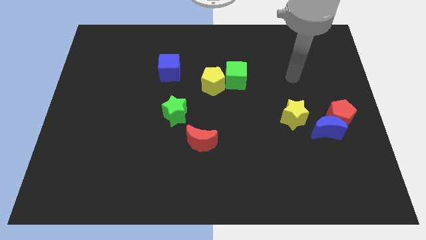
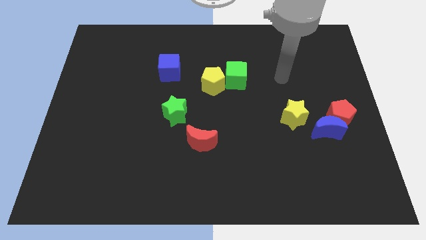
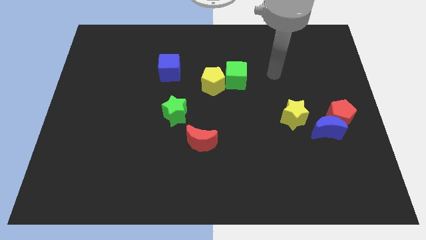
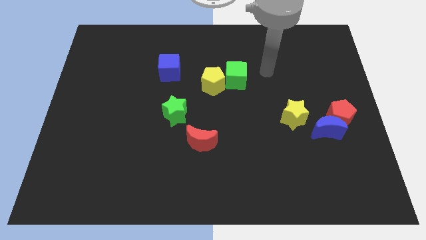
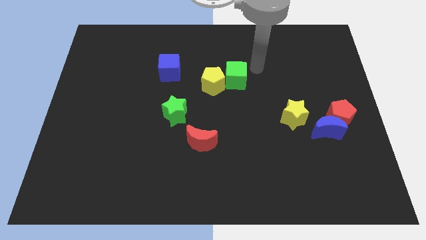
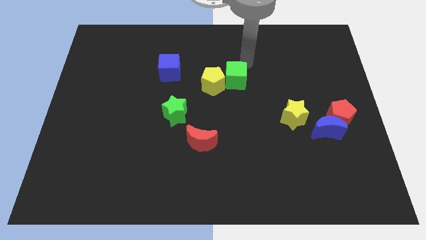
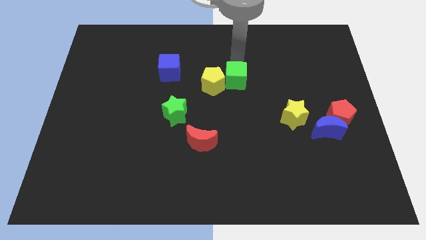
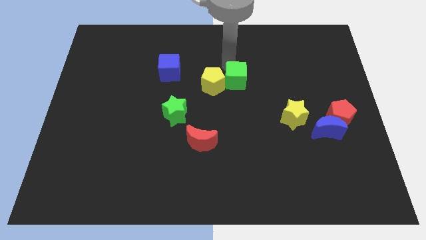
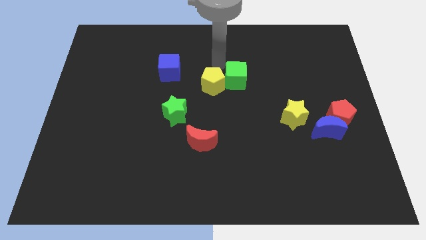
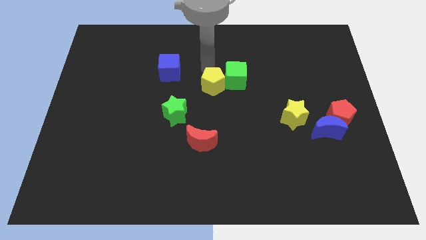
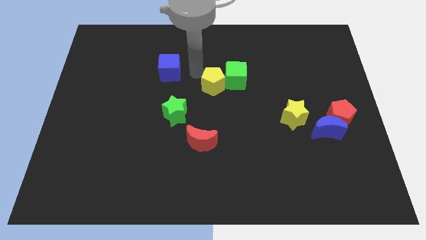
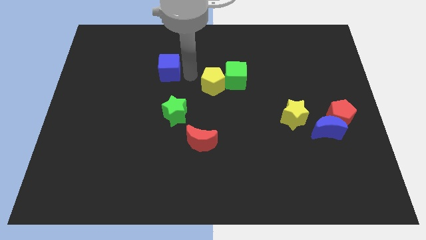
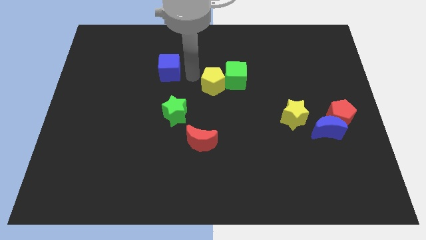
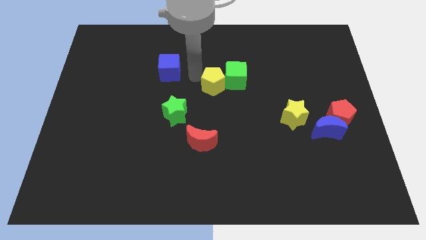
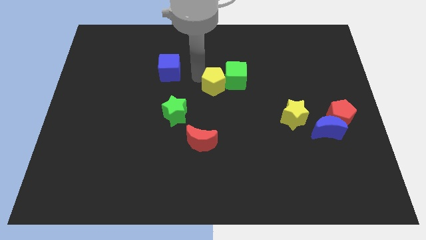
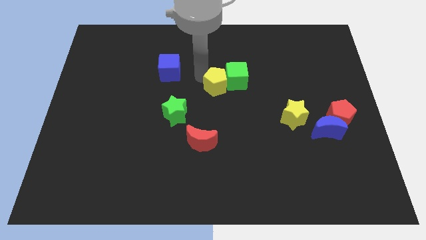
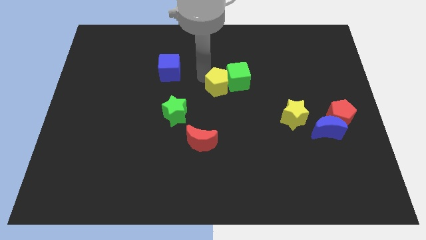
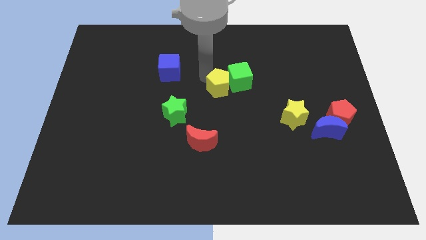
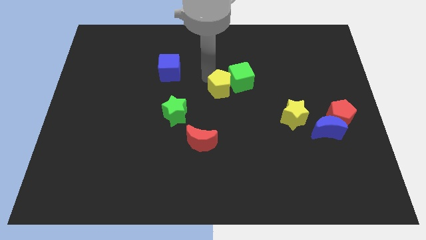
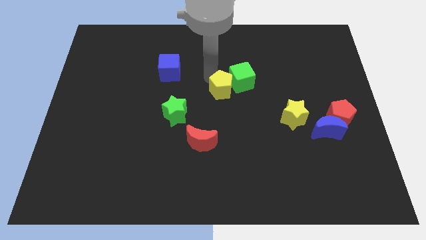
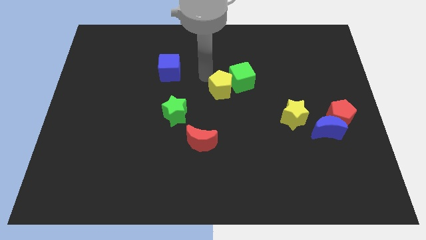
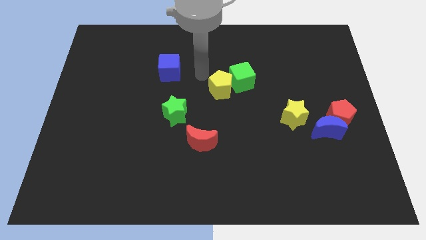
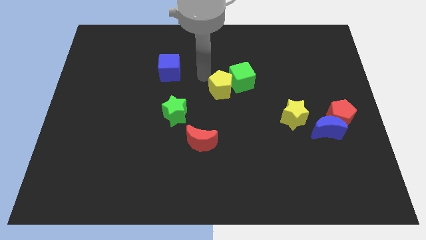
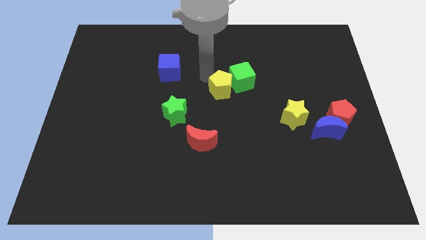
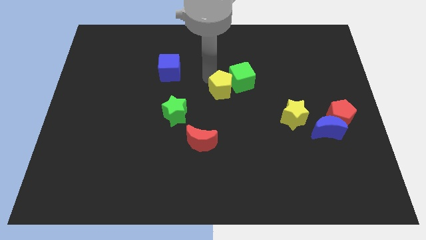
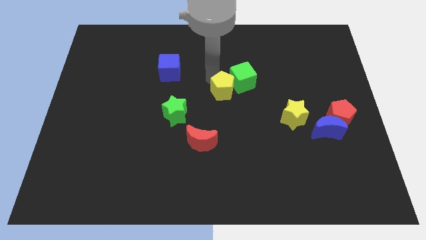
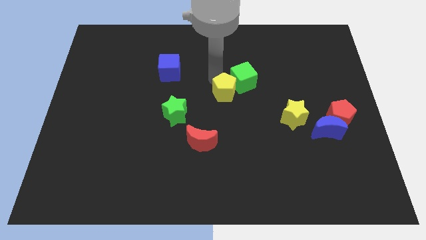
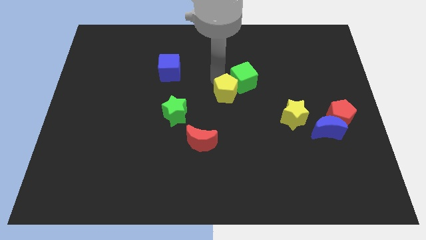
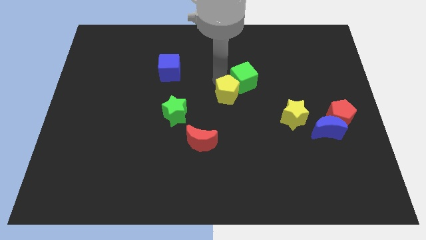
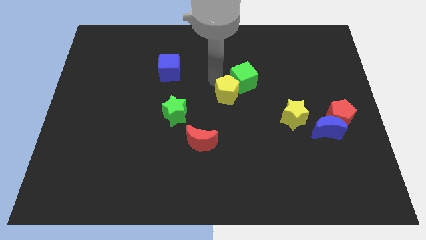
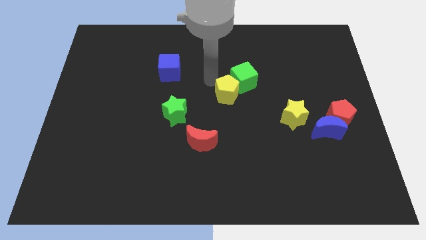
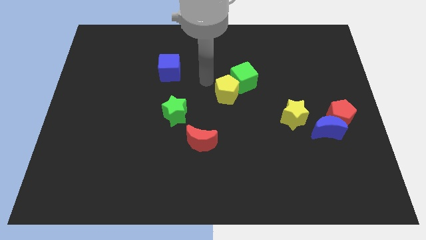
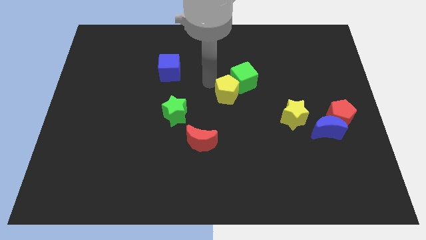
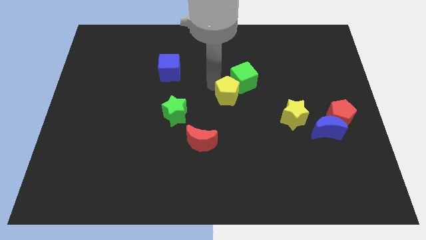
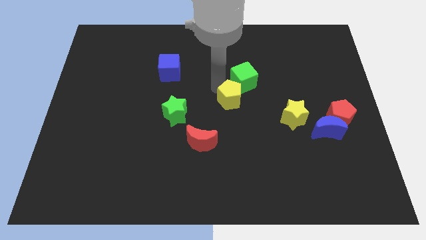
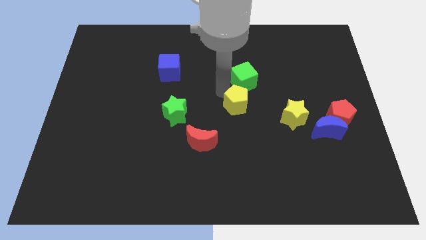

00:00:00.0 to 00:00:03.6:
slightly move the yellow pentagon downwards and right diagonally

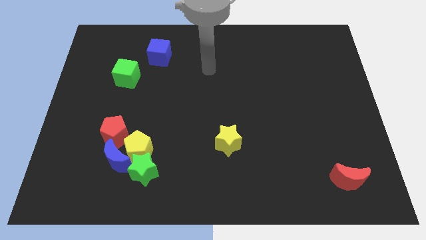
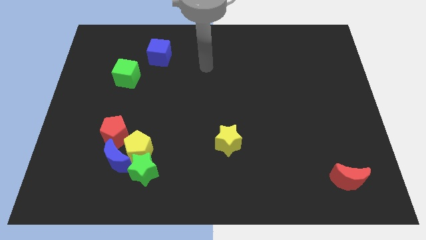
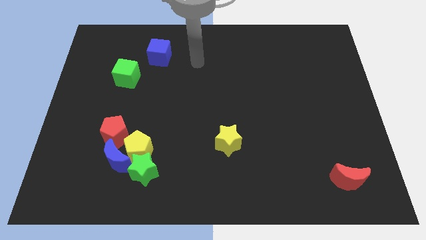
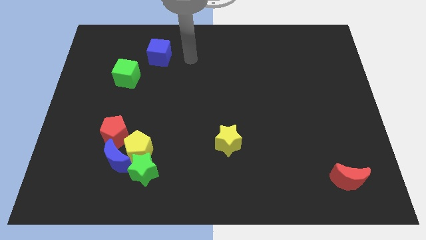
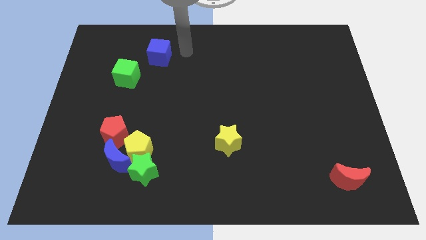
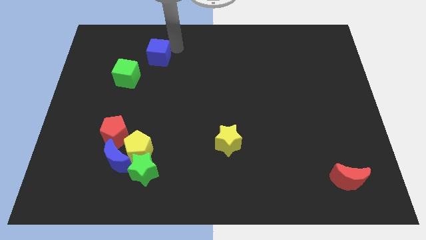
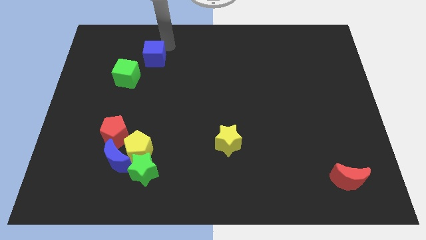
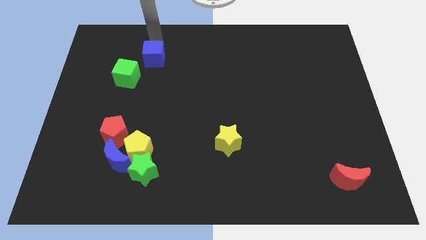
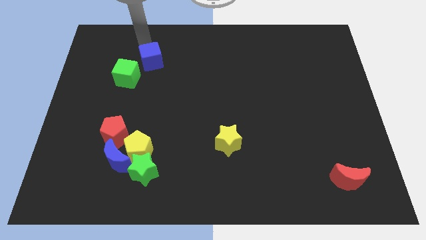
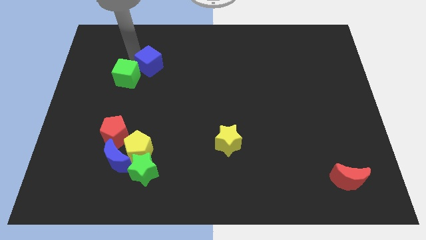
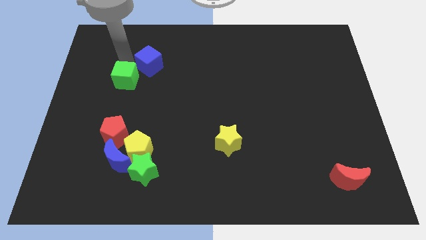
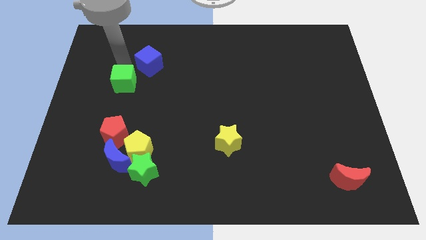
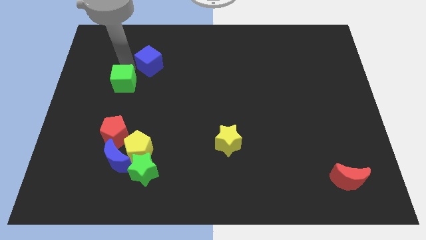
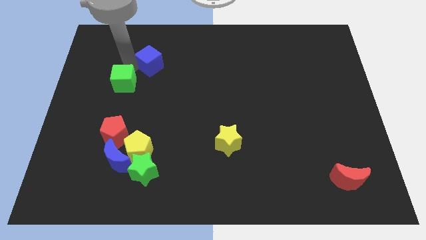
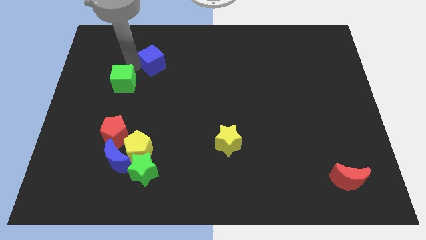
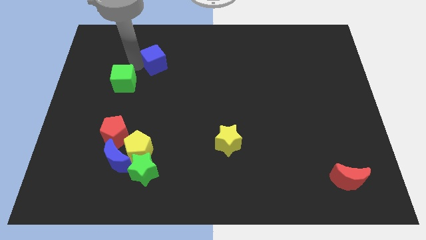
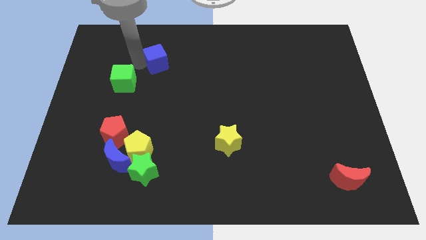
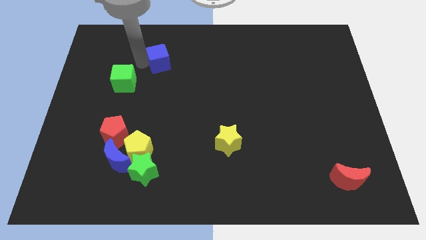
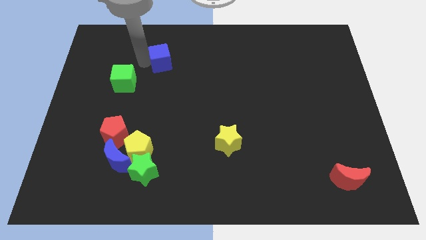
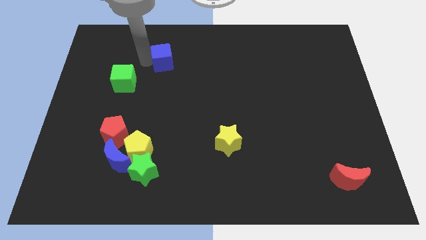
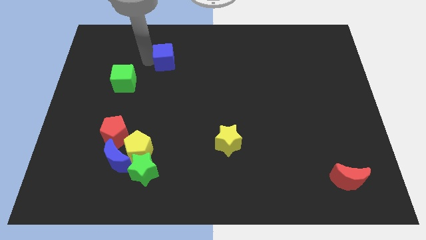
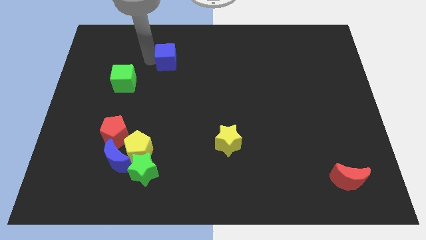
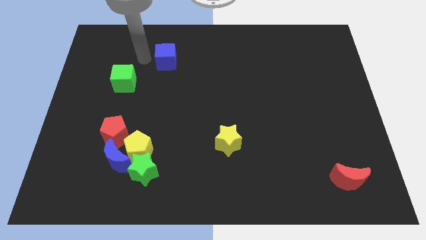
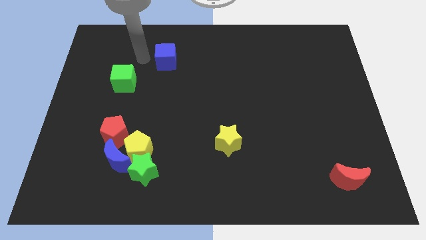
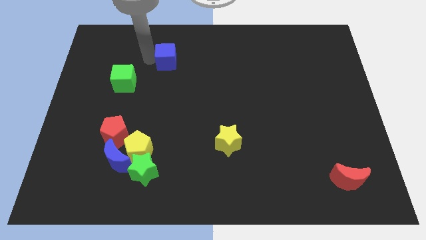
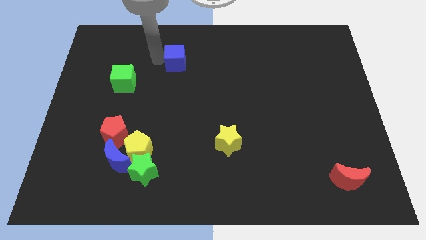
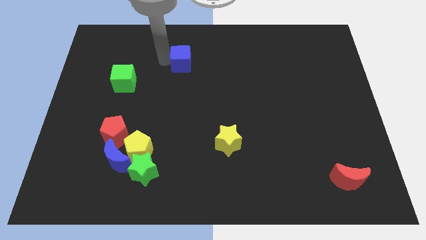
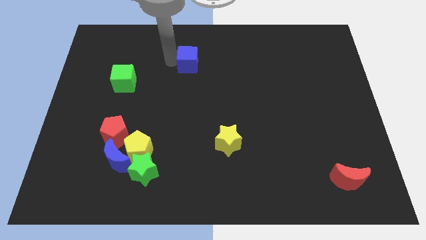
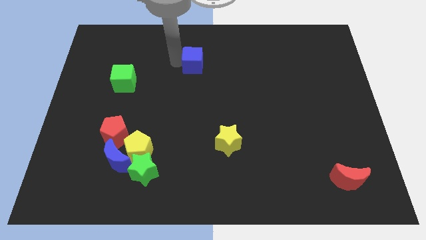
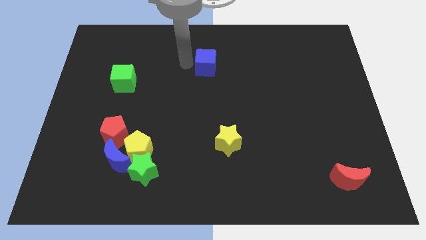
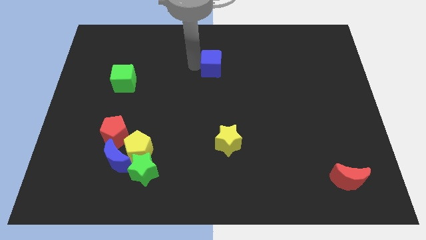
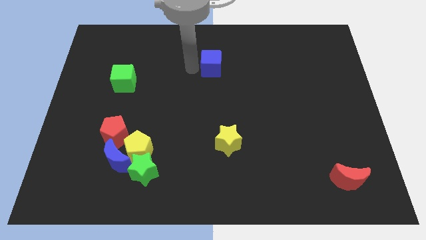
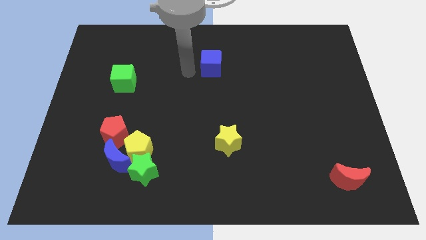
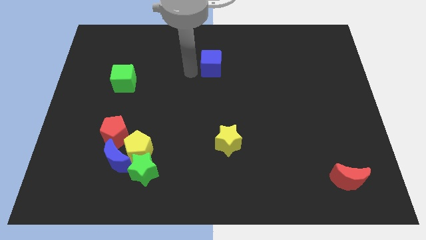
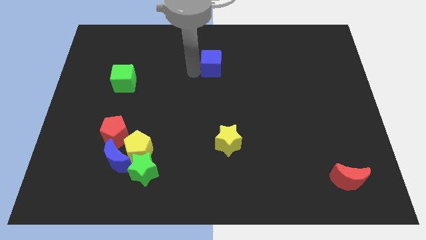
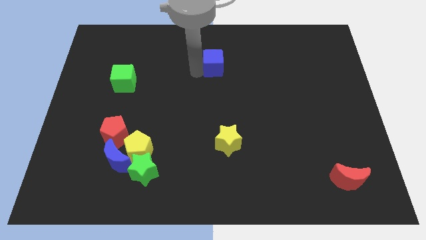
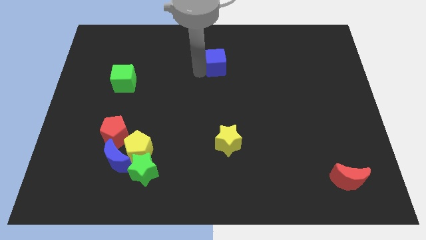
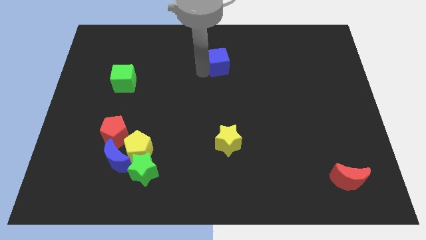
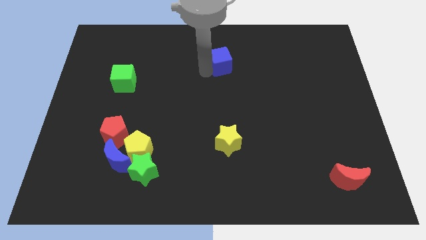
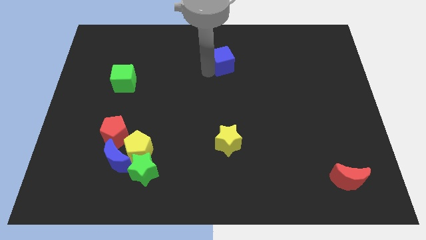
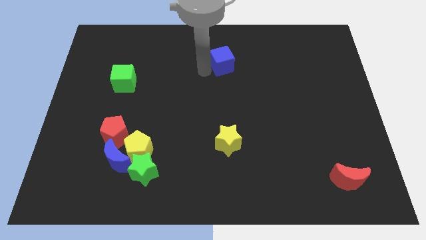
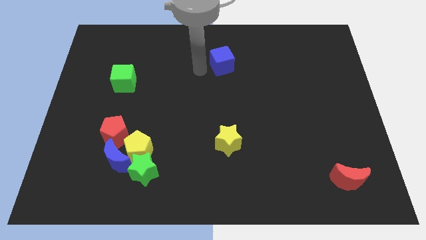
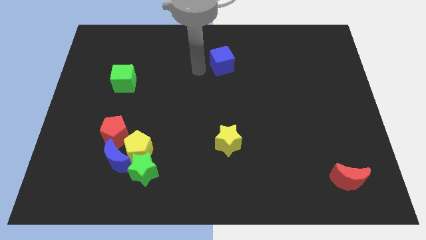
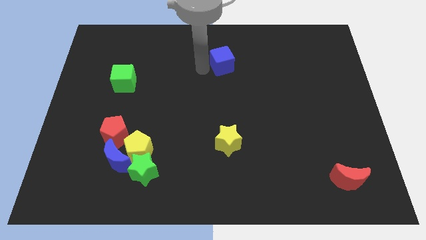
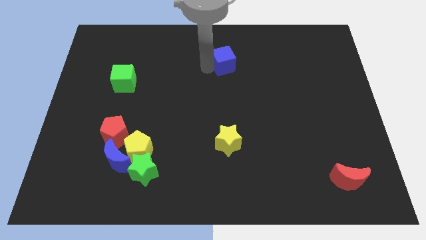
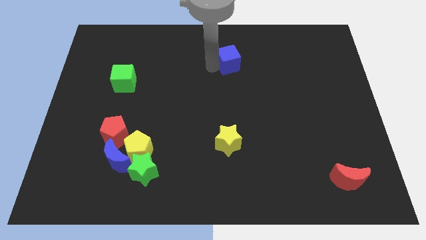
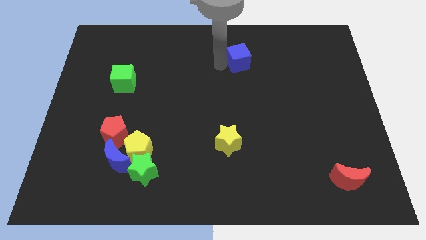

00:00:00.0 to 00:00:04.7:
move the blue cube right
